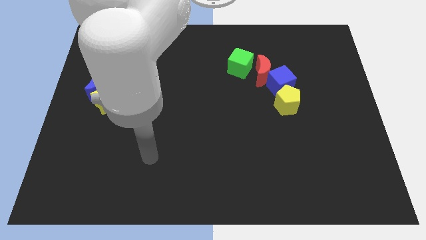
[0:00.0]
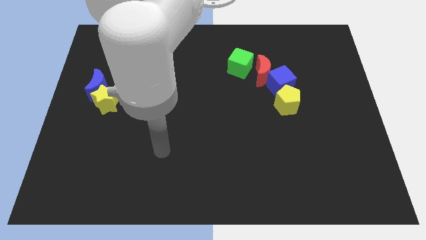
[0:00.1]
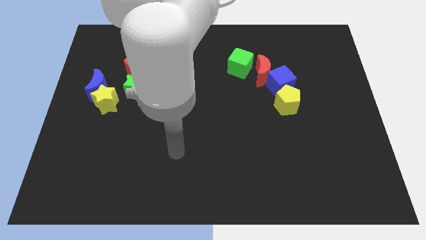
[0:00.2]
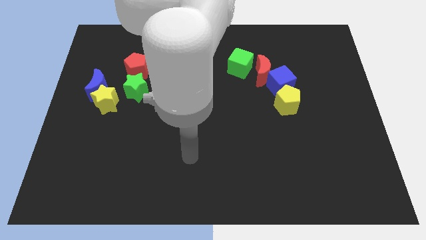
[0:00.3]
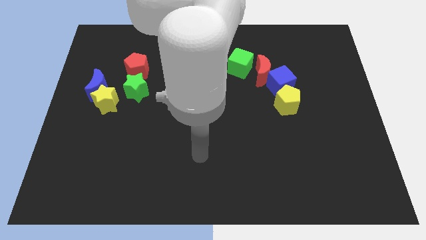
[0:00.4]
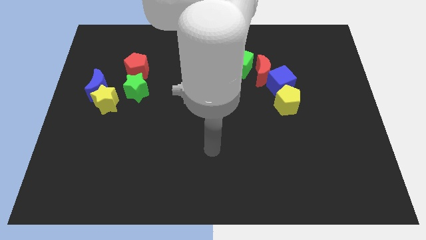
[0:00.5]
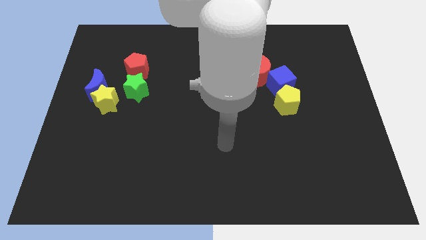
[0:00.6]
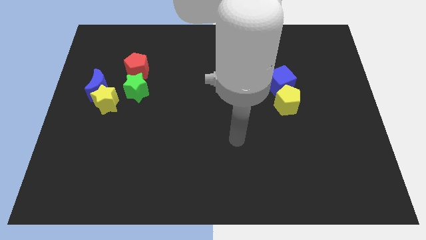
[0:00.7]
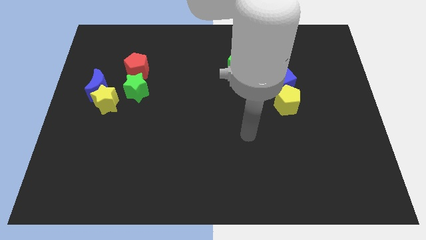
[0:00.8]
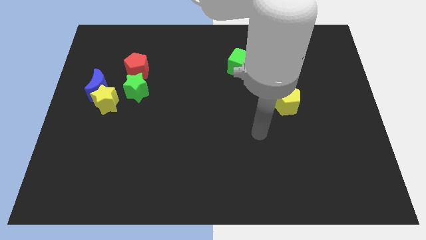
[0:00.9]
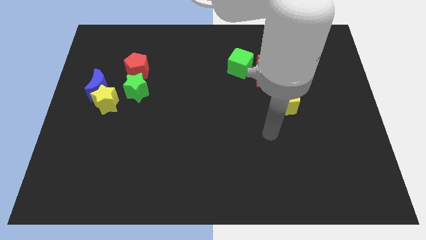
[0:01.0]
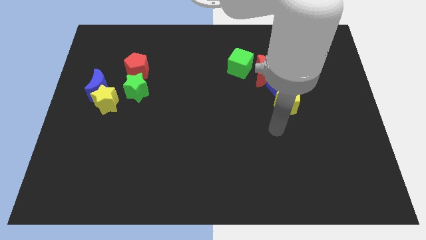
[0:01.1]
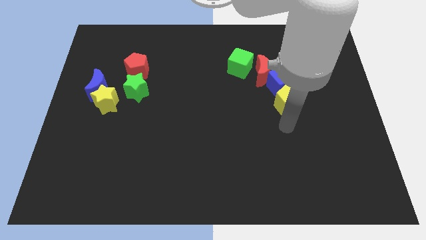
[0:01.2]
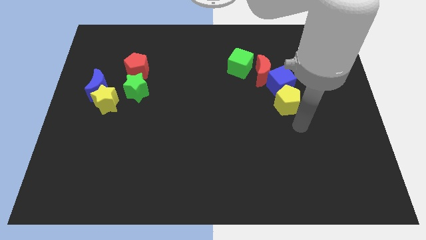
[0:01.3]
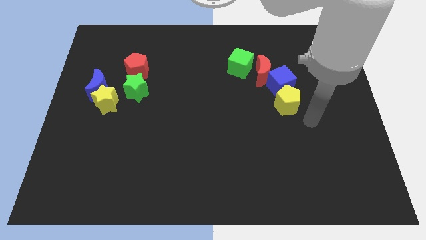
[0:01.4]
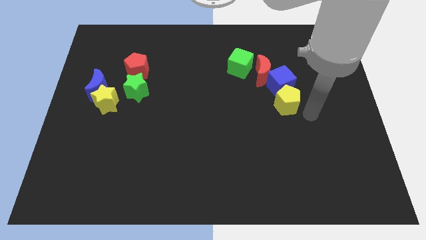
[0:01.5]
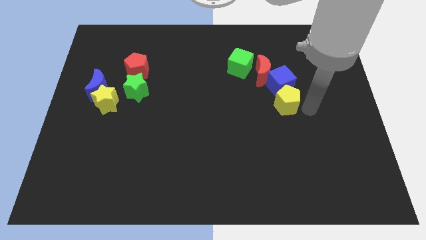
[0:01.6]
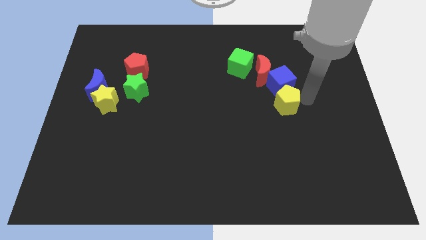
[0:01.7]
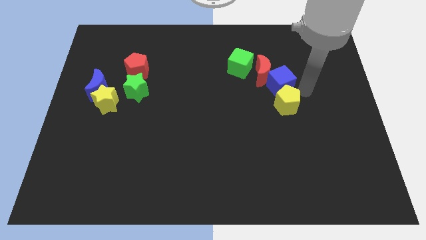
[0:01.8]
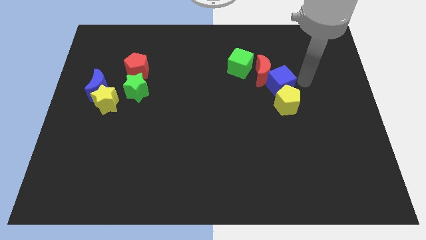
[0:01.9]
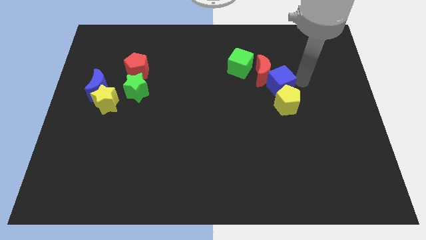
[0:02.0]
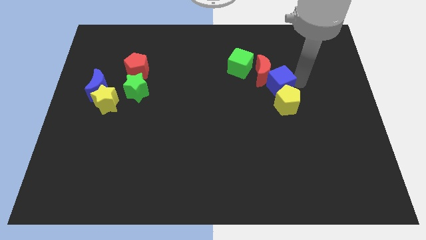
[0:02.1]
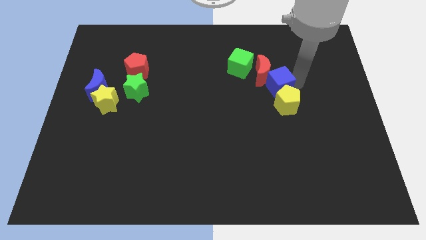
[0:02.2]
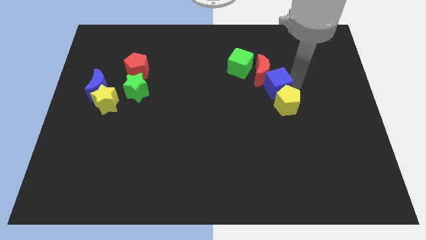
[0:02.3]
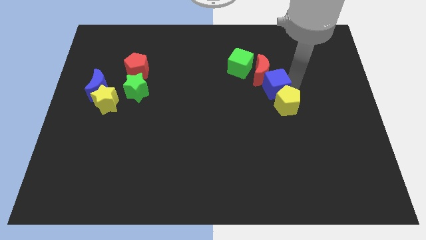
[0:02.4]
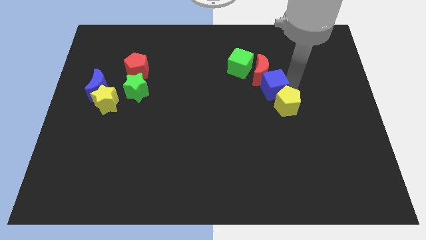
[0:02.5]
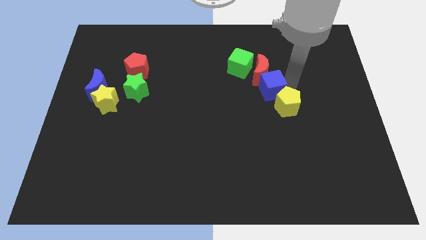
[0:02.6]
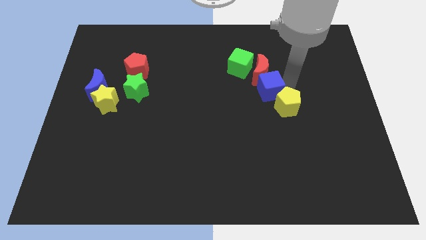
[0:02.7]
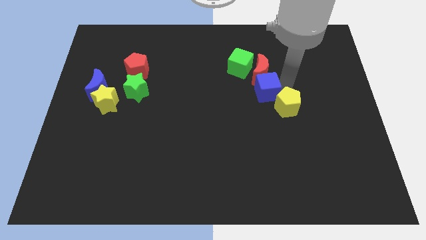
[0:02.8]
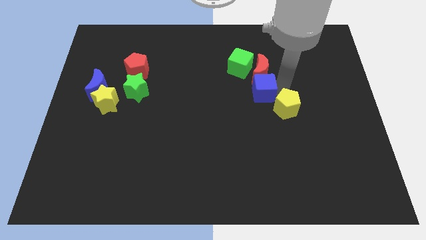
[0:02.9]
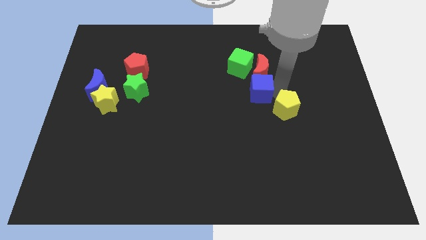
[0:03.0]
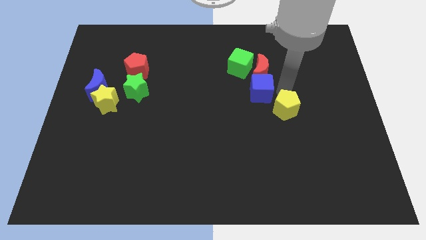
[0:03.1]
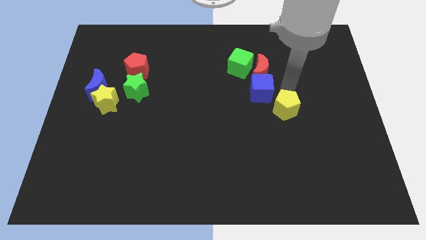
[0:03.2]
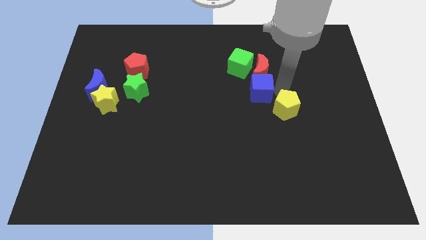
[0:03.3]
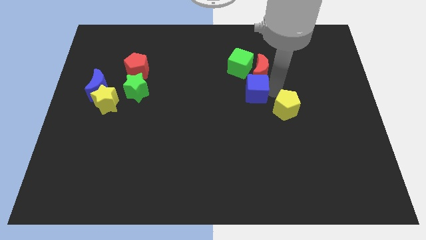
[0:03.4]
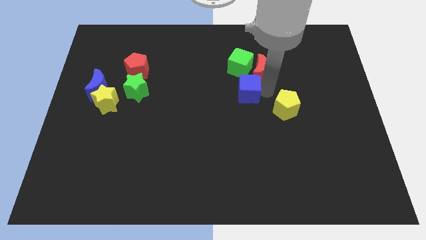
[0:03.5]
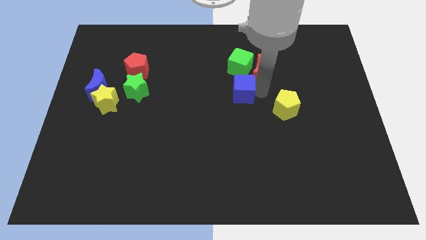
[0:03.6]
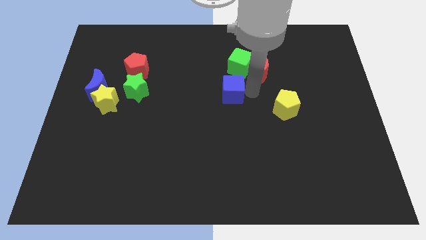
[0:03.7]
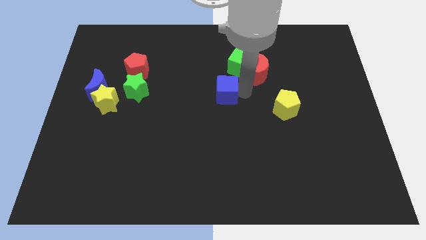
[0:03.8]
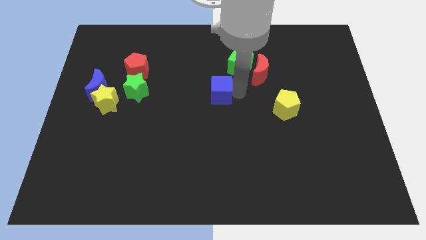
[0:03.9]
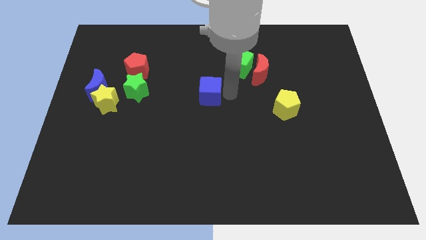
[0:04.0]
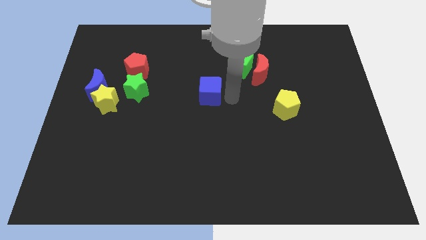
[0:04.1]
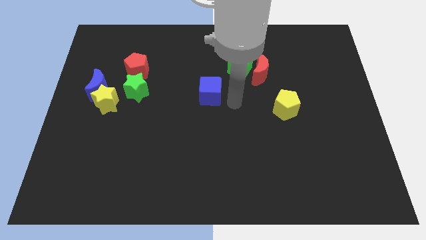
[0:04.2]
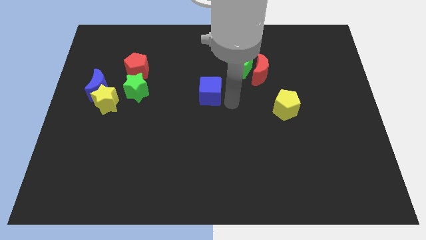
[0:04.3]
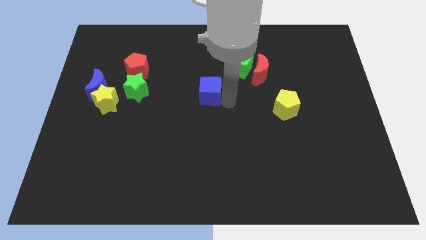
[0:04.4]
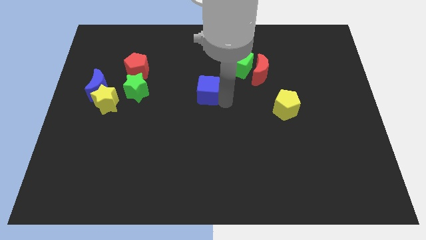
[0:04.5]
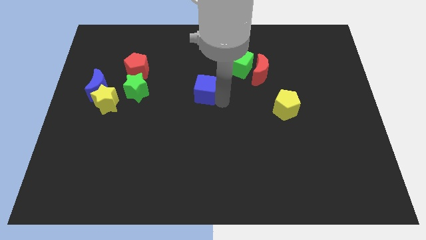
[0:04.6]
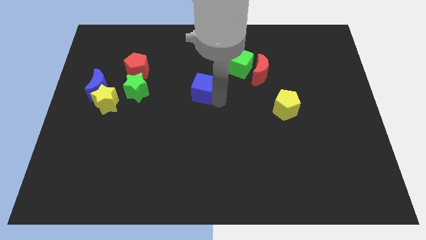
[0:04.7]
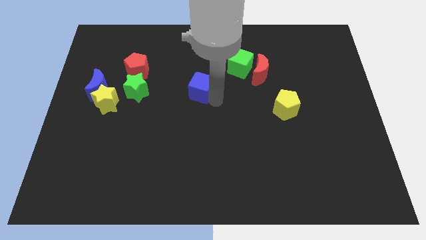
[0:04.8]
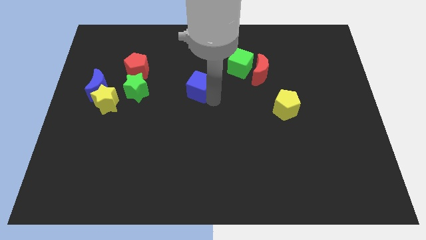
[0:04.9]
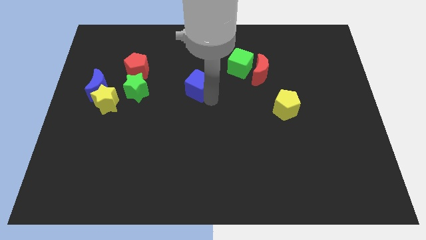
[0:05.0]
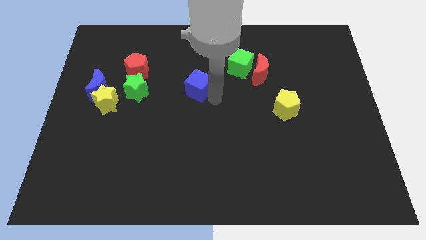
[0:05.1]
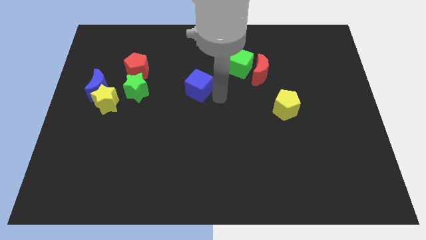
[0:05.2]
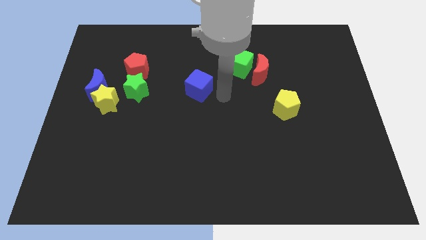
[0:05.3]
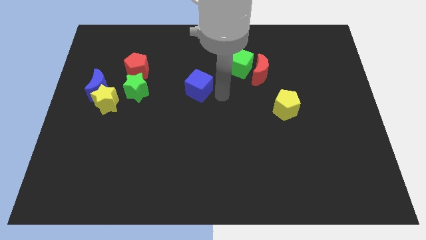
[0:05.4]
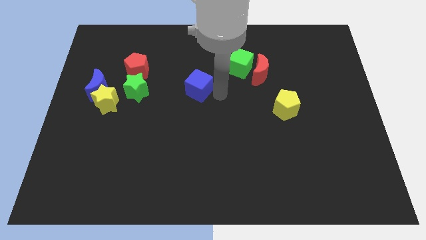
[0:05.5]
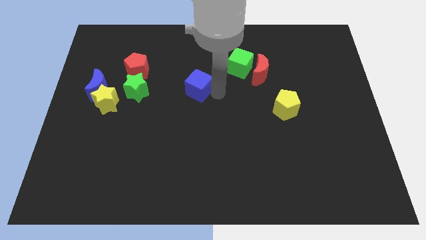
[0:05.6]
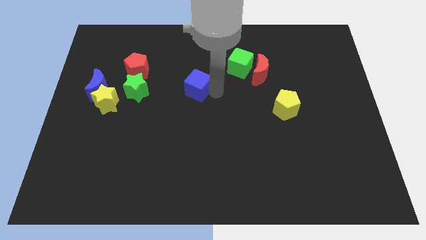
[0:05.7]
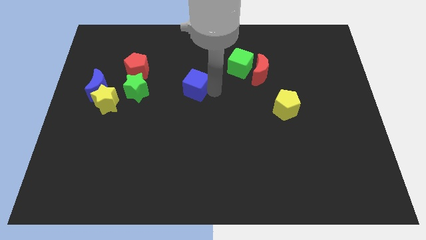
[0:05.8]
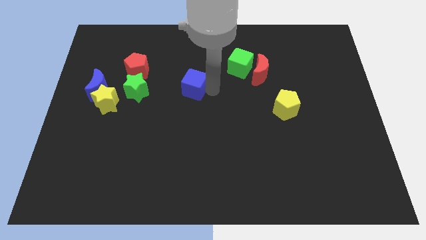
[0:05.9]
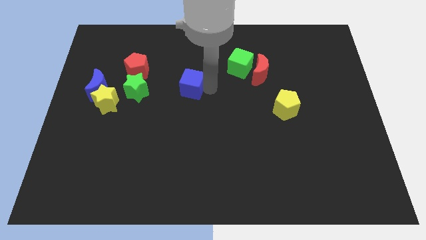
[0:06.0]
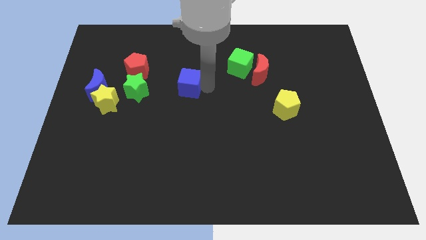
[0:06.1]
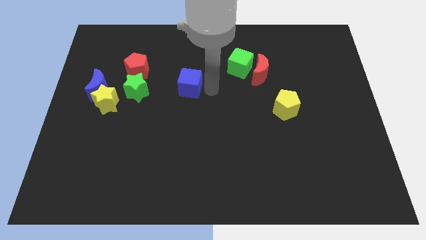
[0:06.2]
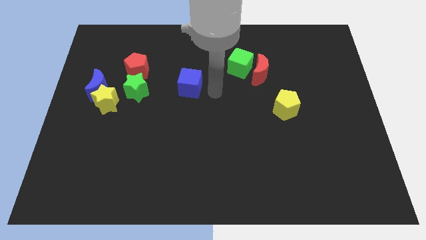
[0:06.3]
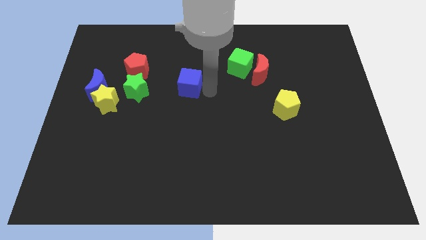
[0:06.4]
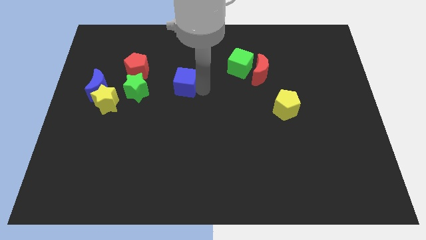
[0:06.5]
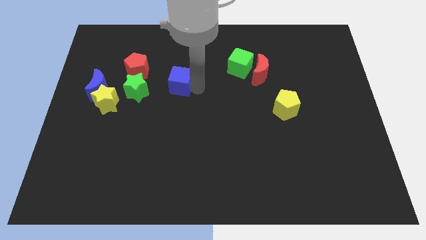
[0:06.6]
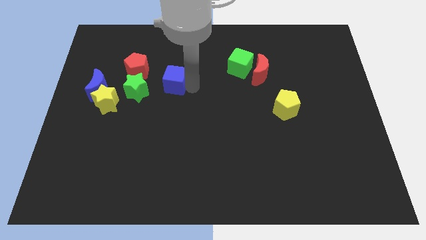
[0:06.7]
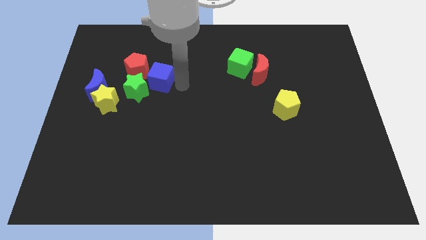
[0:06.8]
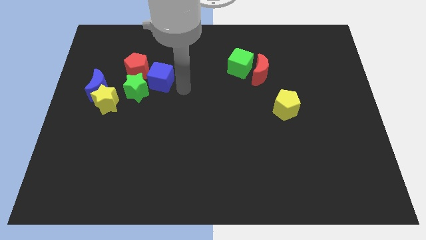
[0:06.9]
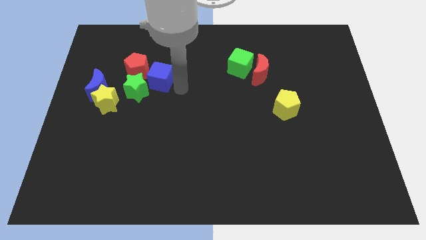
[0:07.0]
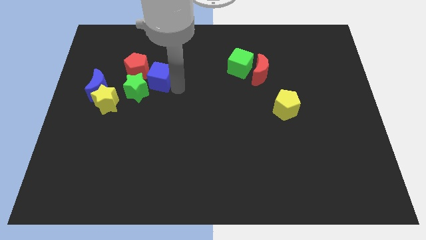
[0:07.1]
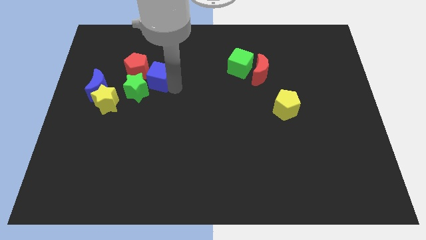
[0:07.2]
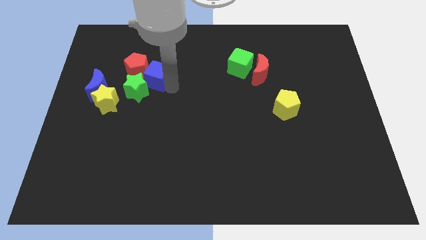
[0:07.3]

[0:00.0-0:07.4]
push the blue cube close to the red pentagon

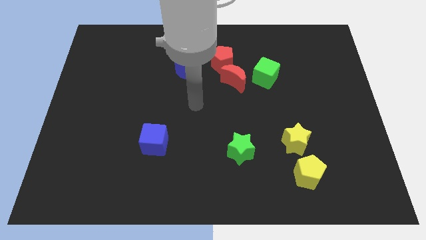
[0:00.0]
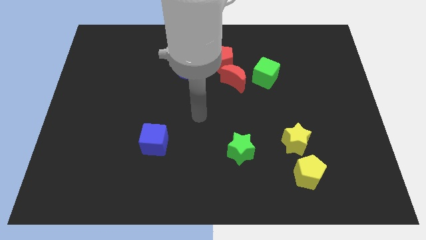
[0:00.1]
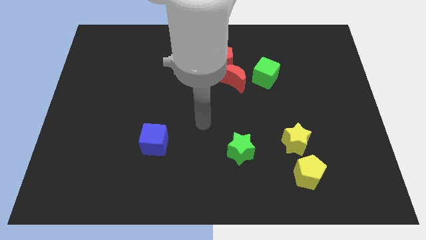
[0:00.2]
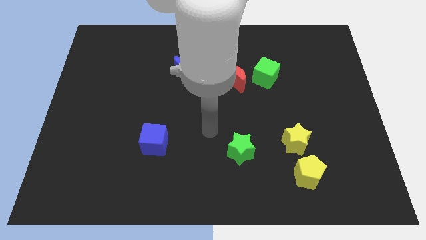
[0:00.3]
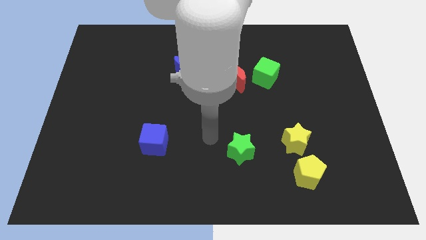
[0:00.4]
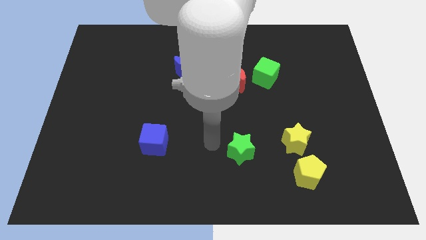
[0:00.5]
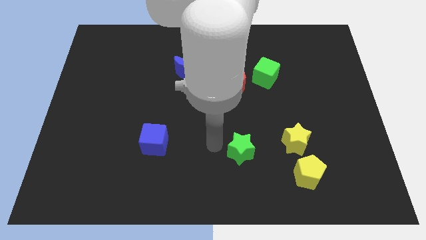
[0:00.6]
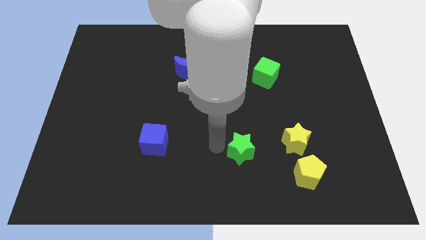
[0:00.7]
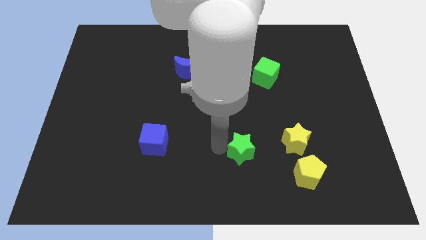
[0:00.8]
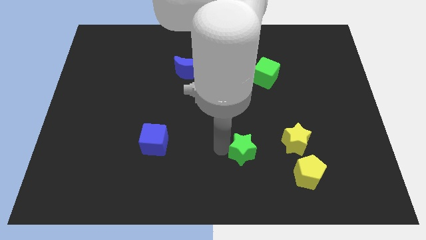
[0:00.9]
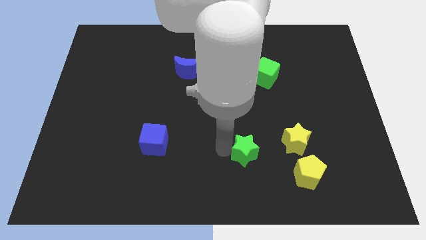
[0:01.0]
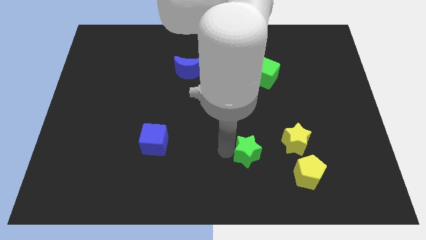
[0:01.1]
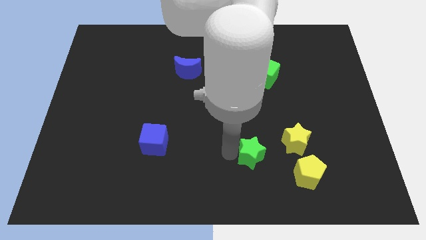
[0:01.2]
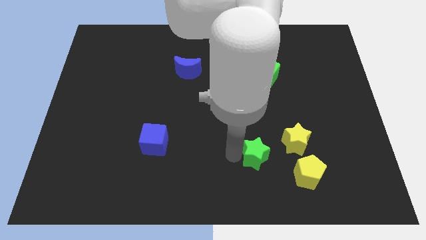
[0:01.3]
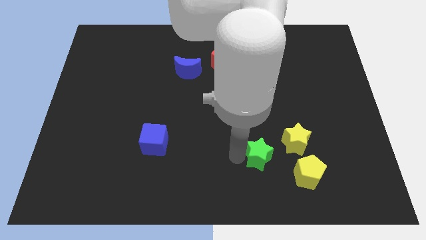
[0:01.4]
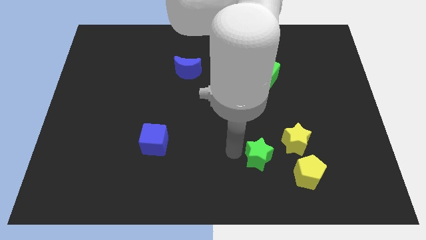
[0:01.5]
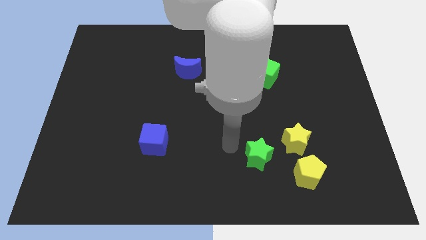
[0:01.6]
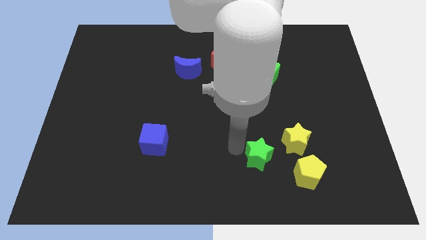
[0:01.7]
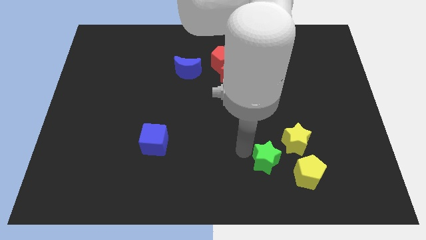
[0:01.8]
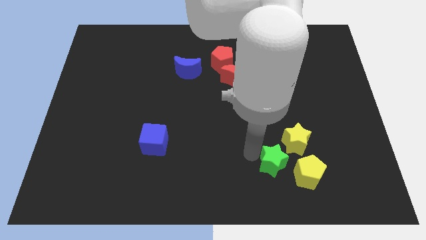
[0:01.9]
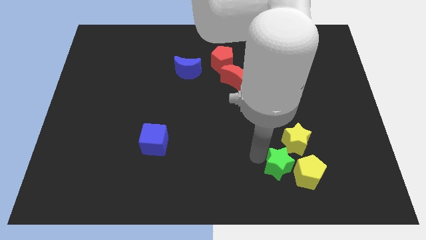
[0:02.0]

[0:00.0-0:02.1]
move the green star towards the yellow pentagon
